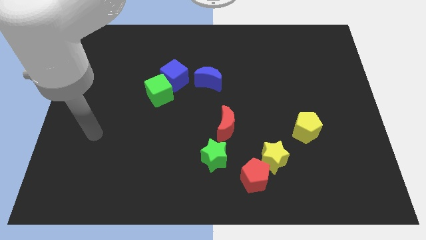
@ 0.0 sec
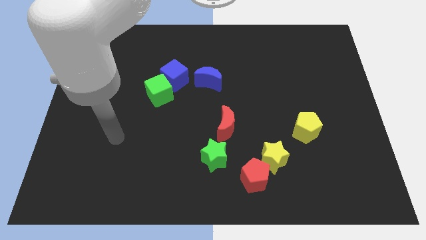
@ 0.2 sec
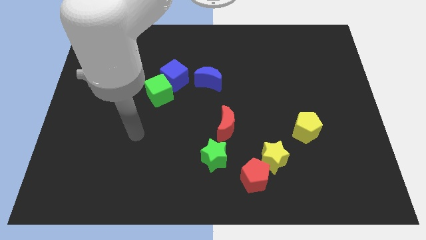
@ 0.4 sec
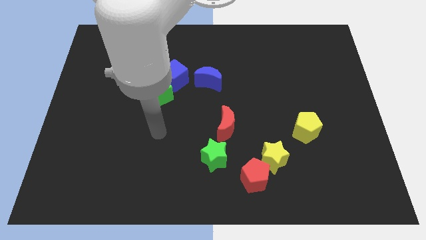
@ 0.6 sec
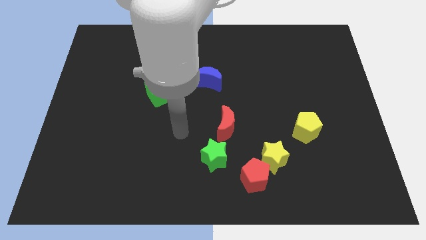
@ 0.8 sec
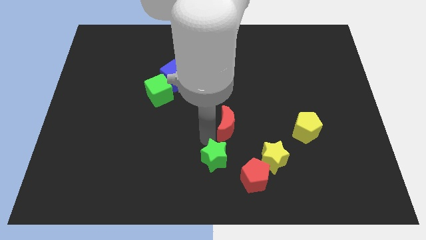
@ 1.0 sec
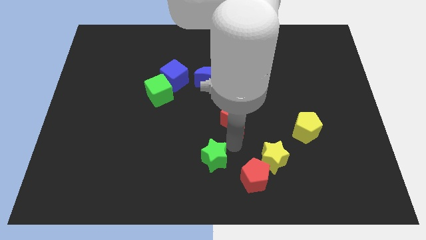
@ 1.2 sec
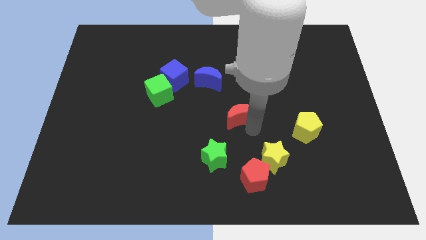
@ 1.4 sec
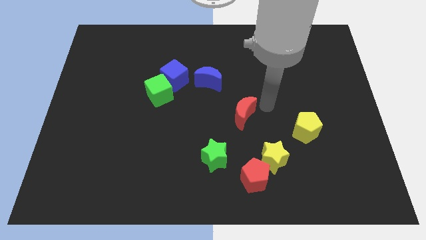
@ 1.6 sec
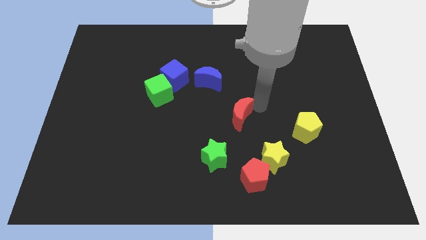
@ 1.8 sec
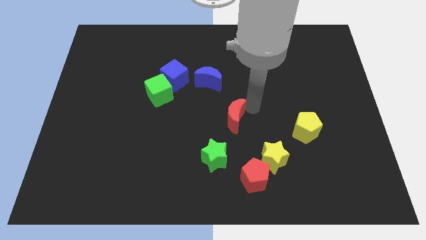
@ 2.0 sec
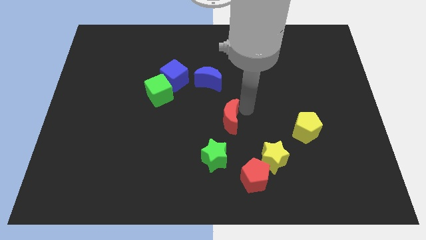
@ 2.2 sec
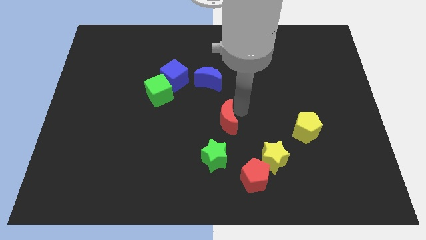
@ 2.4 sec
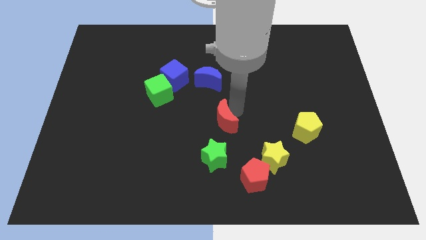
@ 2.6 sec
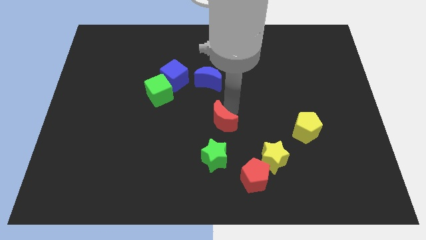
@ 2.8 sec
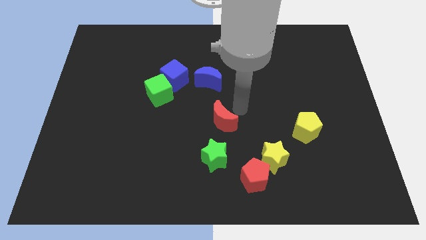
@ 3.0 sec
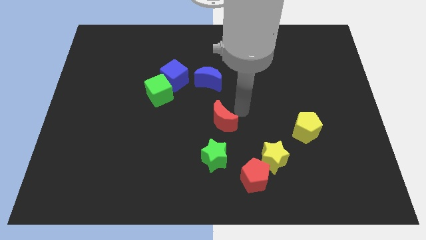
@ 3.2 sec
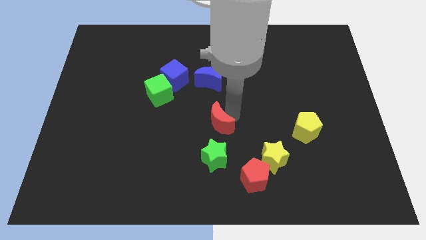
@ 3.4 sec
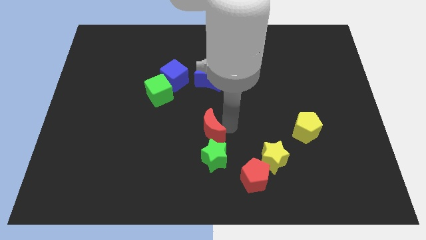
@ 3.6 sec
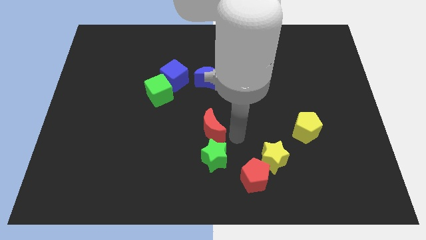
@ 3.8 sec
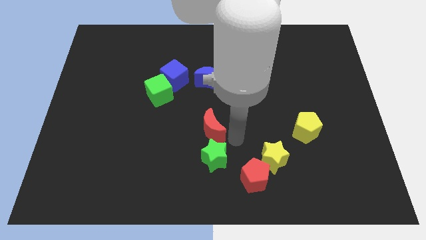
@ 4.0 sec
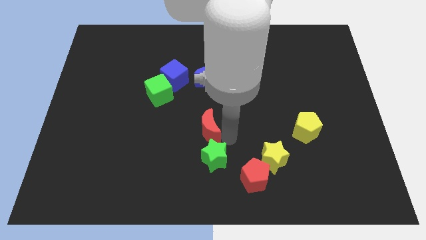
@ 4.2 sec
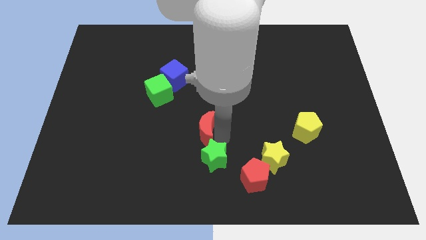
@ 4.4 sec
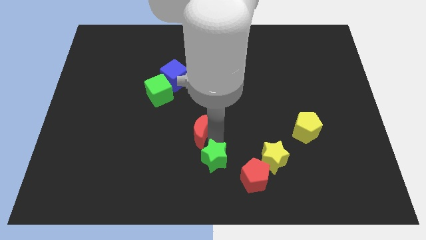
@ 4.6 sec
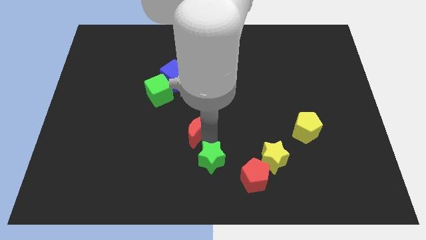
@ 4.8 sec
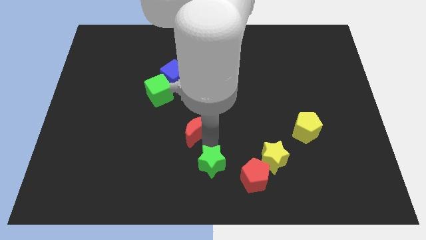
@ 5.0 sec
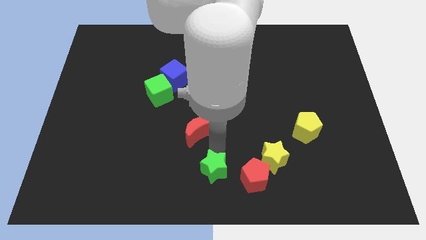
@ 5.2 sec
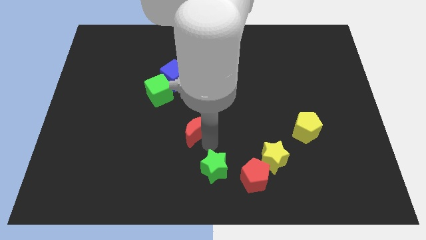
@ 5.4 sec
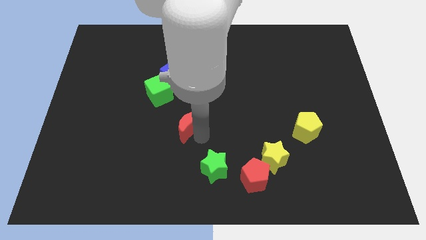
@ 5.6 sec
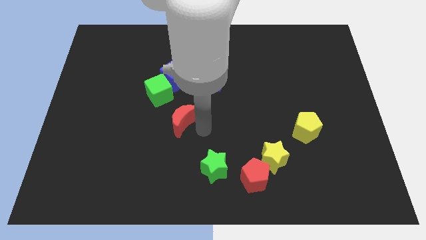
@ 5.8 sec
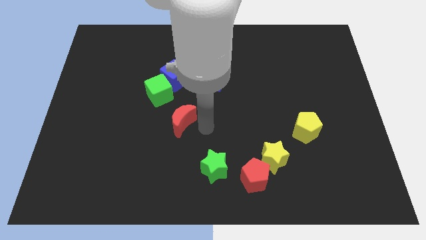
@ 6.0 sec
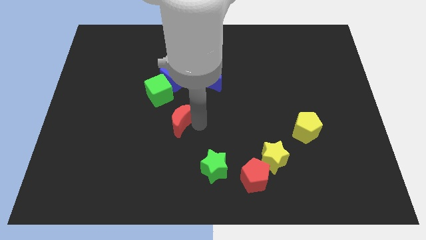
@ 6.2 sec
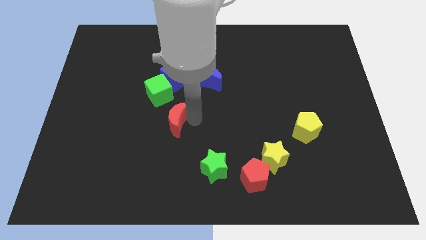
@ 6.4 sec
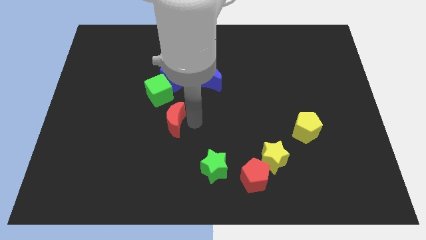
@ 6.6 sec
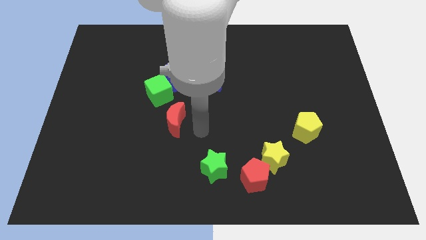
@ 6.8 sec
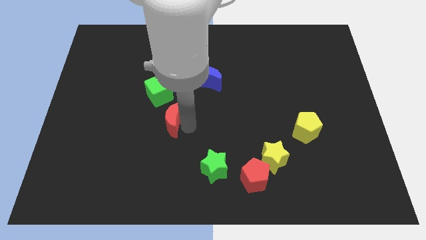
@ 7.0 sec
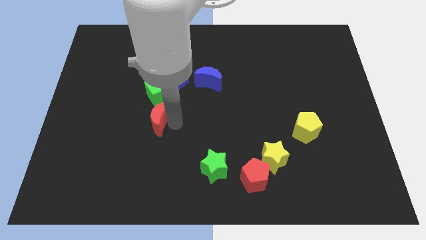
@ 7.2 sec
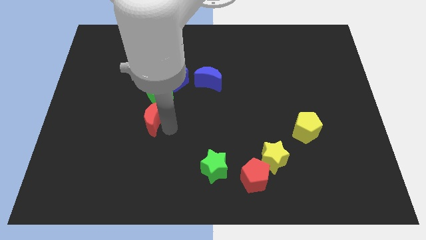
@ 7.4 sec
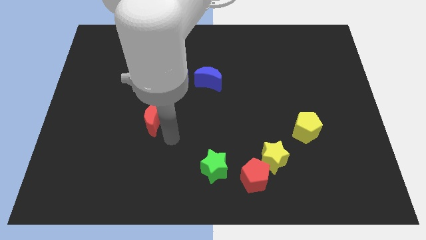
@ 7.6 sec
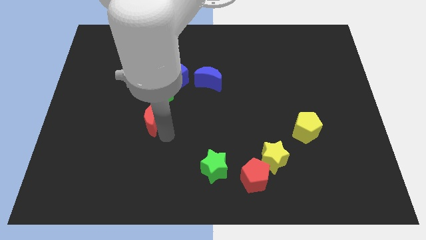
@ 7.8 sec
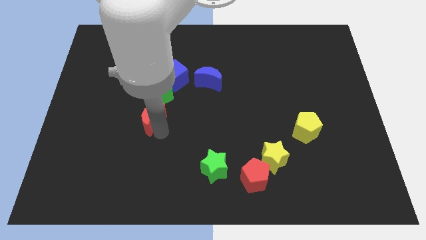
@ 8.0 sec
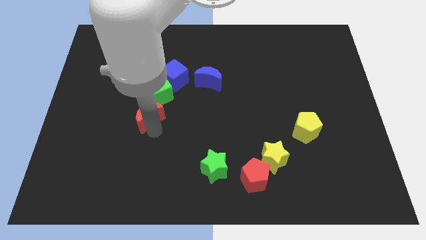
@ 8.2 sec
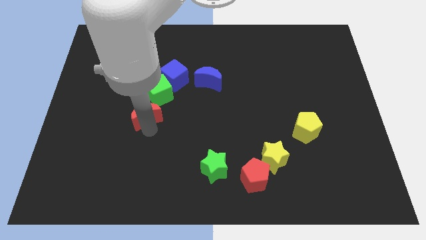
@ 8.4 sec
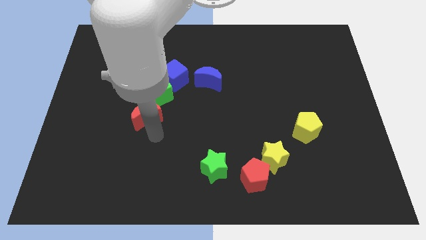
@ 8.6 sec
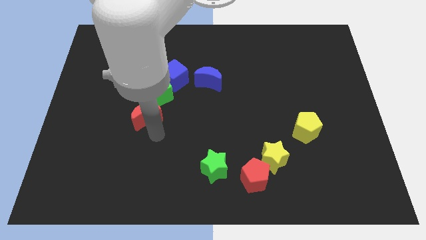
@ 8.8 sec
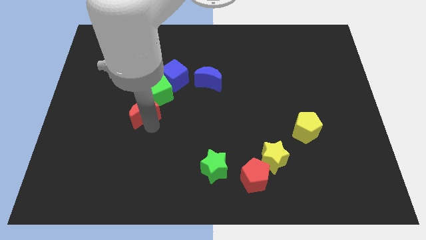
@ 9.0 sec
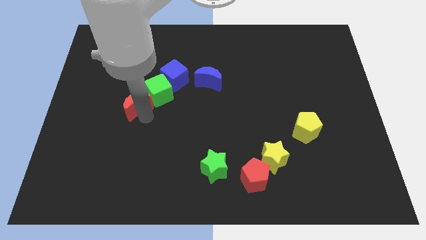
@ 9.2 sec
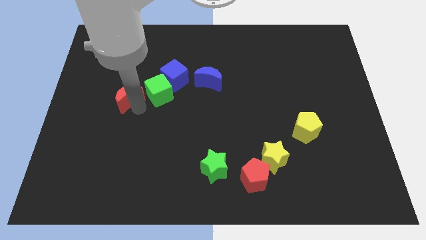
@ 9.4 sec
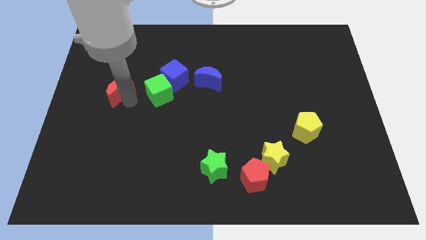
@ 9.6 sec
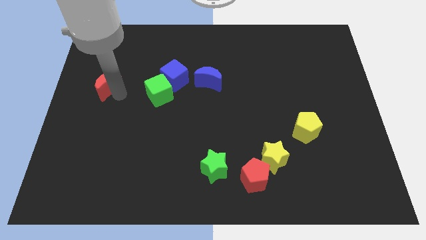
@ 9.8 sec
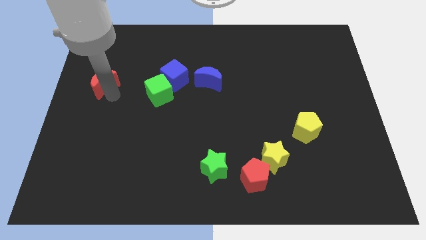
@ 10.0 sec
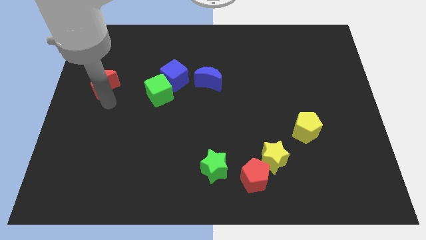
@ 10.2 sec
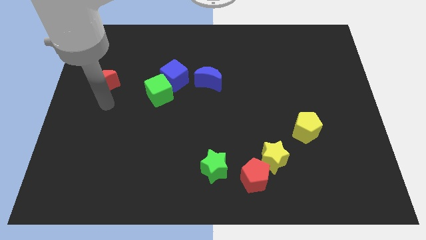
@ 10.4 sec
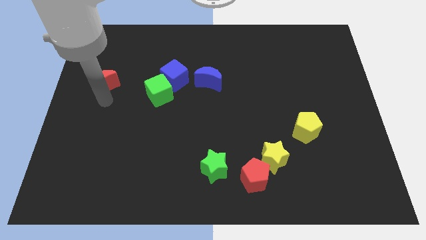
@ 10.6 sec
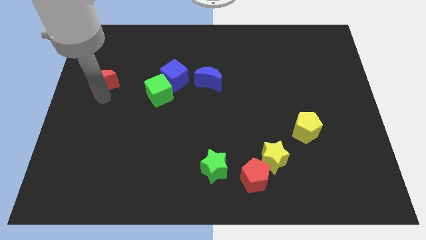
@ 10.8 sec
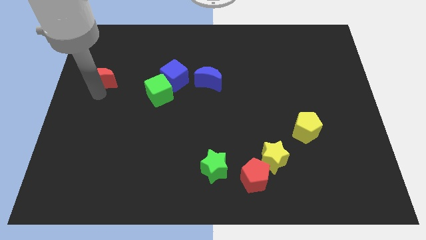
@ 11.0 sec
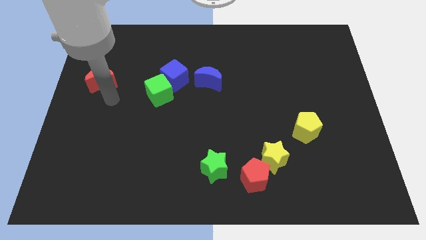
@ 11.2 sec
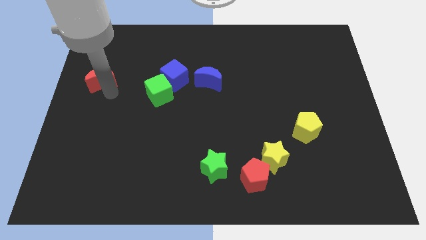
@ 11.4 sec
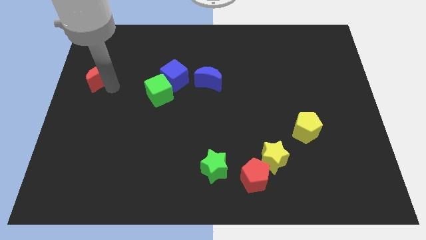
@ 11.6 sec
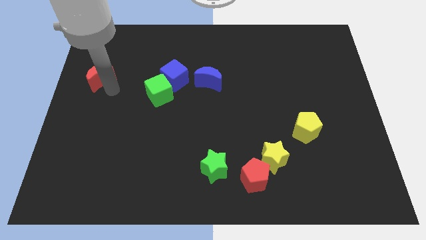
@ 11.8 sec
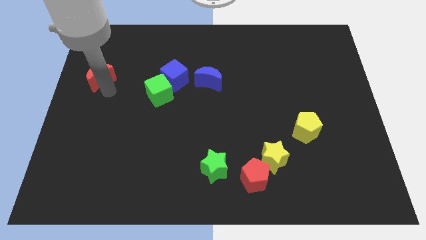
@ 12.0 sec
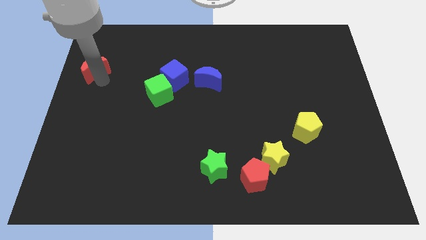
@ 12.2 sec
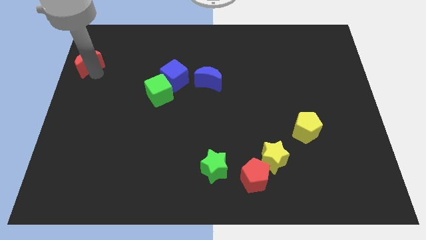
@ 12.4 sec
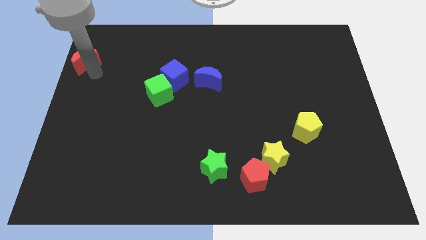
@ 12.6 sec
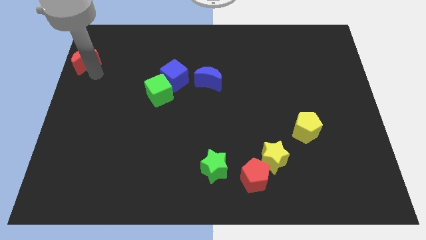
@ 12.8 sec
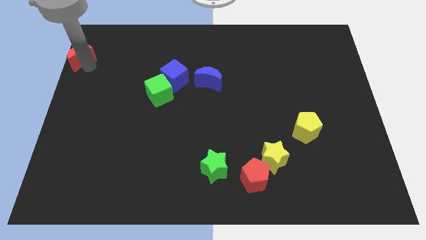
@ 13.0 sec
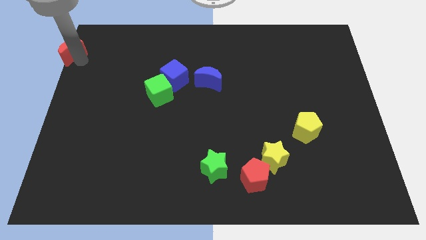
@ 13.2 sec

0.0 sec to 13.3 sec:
push the red moon to the top left corner

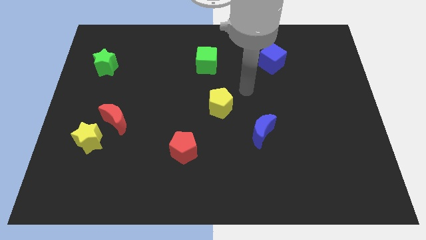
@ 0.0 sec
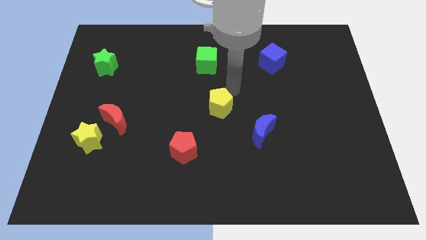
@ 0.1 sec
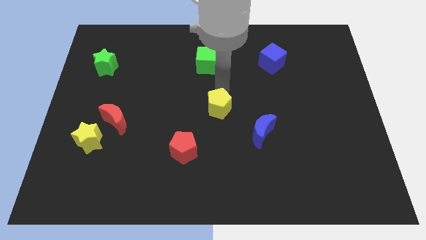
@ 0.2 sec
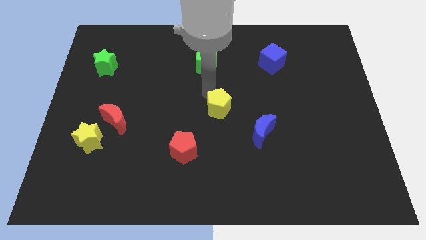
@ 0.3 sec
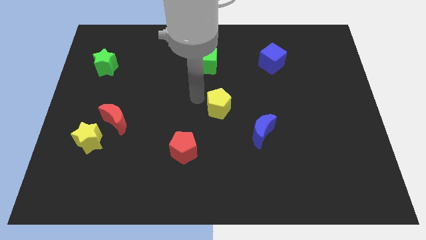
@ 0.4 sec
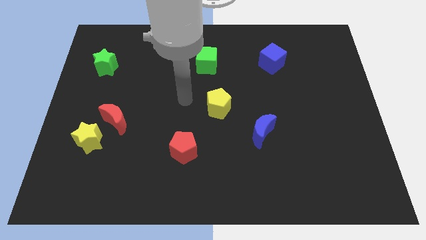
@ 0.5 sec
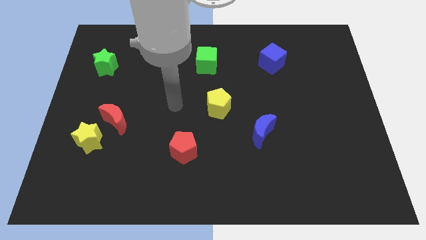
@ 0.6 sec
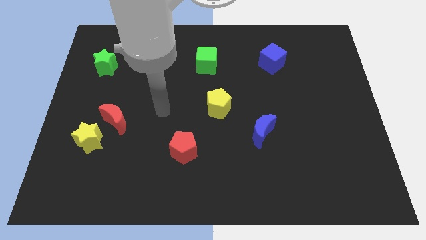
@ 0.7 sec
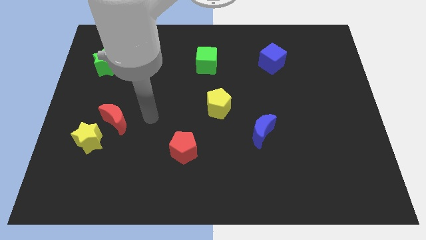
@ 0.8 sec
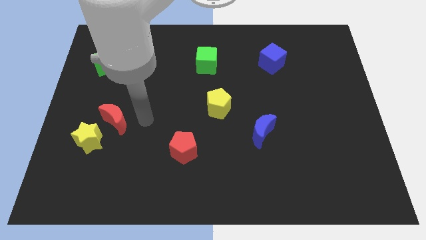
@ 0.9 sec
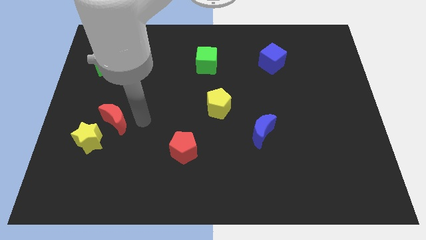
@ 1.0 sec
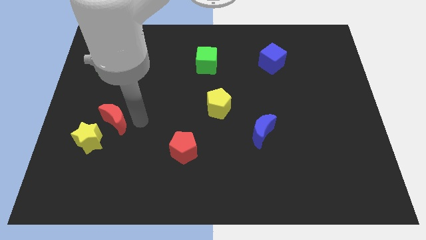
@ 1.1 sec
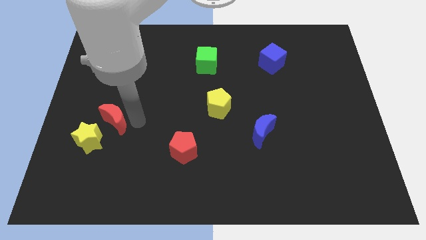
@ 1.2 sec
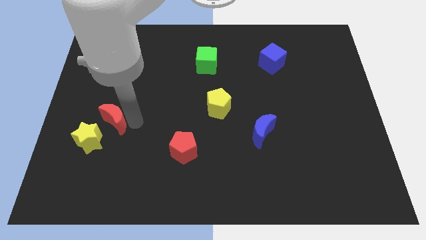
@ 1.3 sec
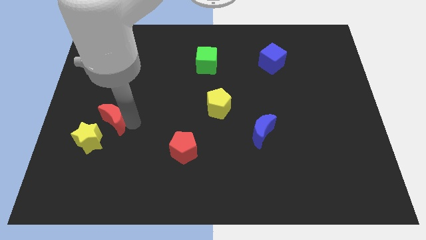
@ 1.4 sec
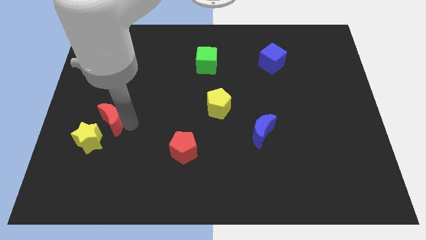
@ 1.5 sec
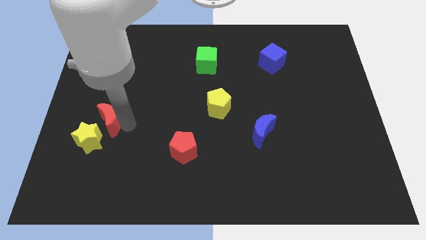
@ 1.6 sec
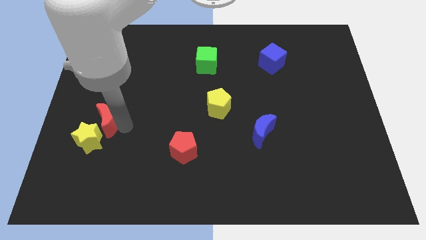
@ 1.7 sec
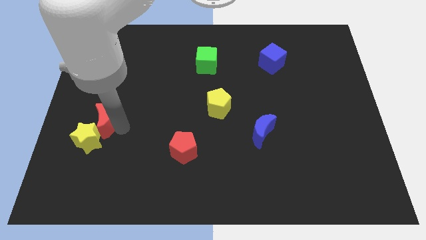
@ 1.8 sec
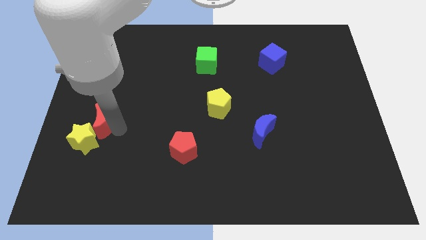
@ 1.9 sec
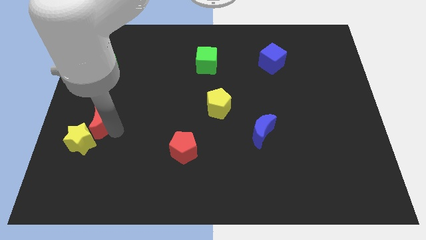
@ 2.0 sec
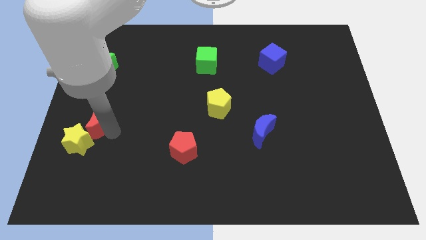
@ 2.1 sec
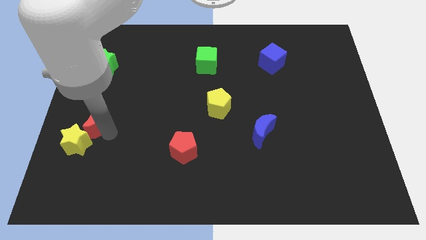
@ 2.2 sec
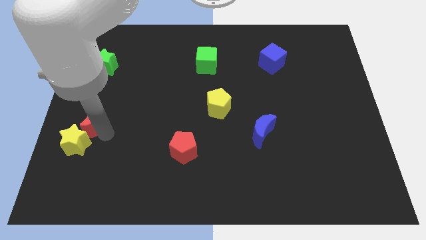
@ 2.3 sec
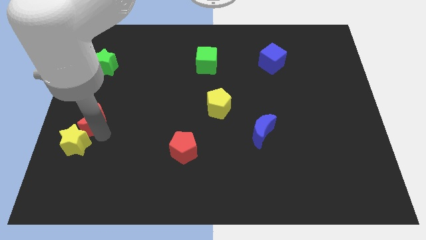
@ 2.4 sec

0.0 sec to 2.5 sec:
push the red moon to the center left
